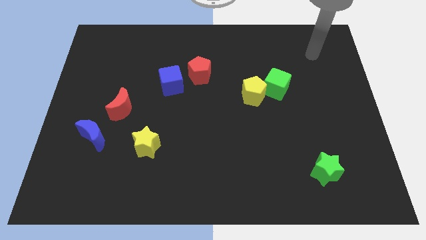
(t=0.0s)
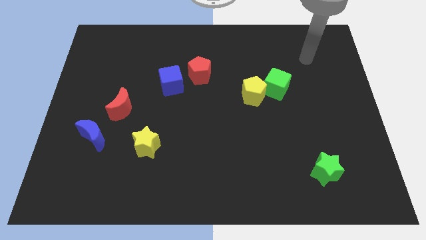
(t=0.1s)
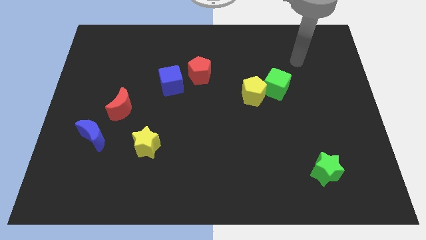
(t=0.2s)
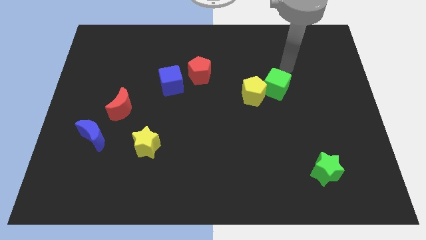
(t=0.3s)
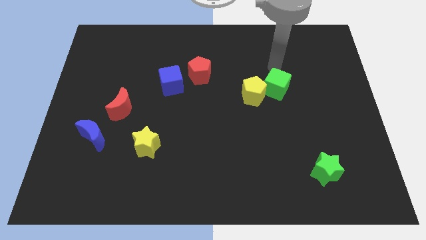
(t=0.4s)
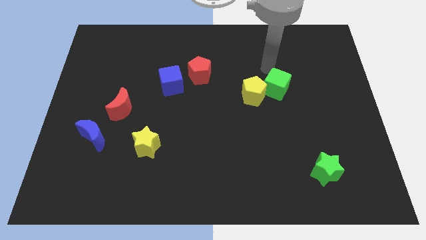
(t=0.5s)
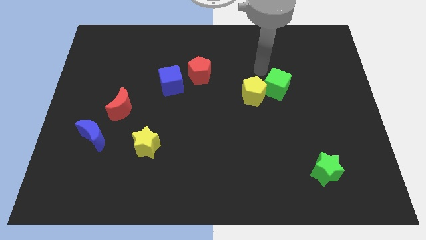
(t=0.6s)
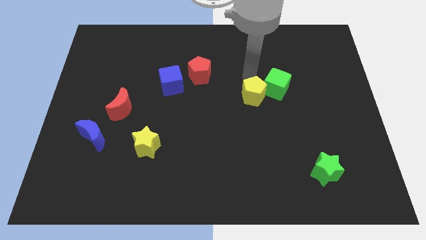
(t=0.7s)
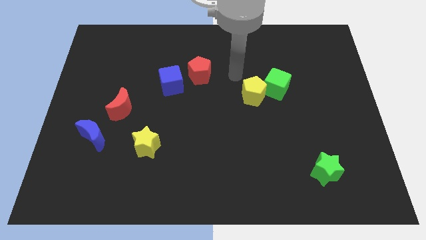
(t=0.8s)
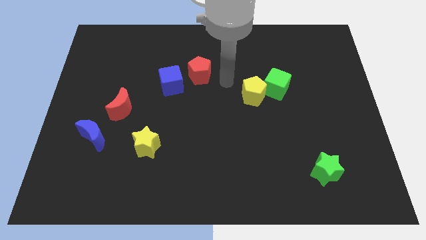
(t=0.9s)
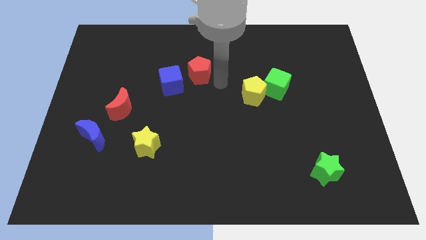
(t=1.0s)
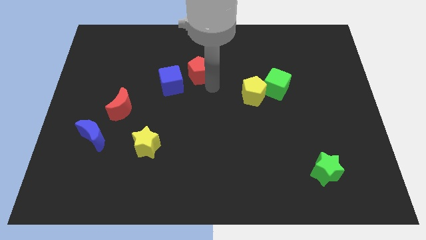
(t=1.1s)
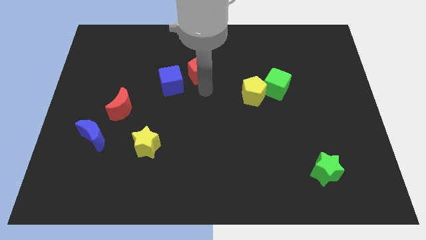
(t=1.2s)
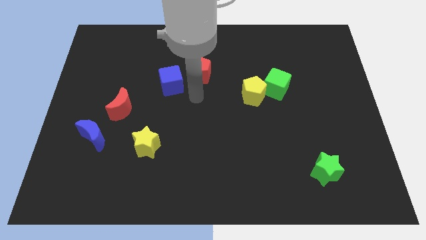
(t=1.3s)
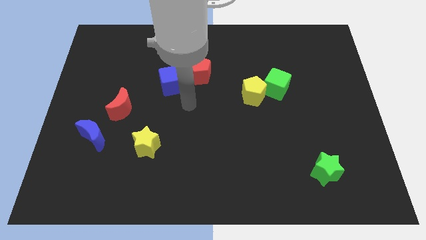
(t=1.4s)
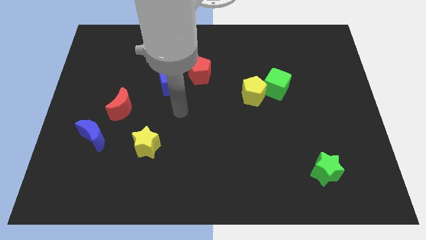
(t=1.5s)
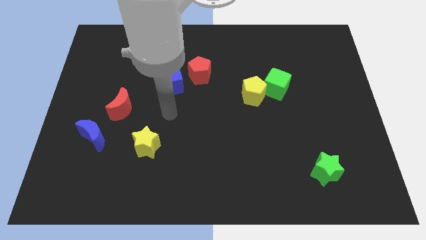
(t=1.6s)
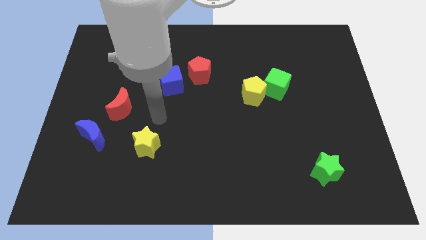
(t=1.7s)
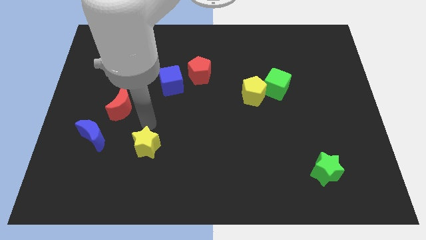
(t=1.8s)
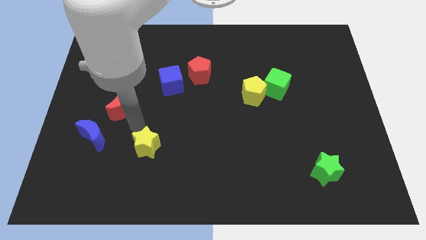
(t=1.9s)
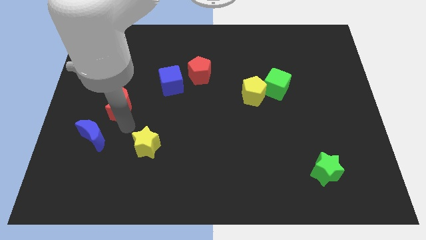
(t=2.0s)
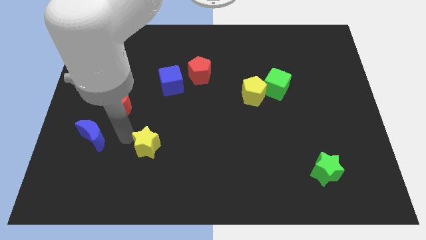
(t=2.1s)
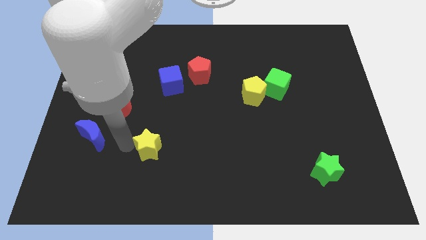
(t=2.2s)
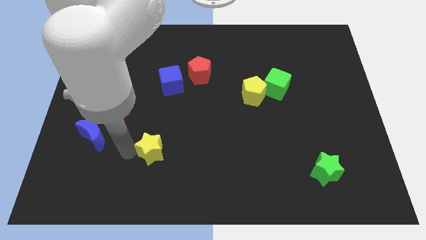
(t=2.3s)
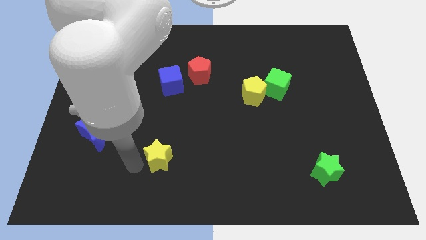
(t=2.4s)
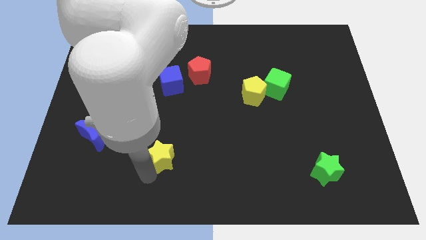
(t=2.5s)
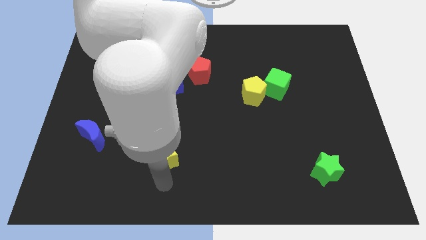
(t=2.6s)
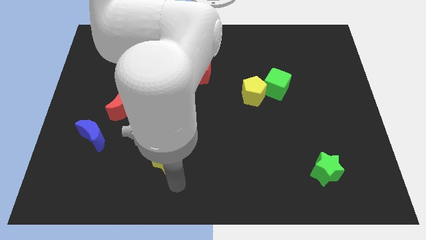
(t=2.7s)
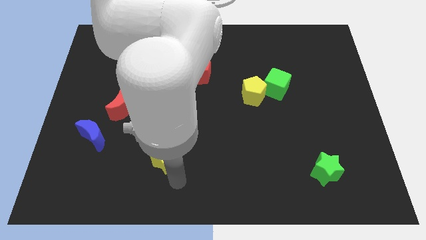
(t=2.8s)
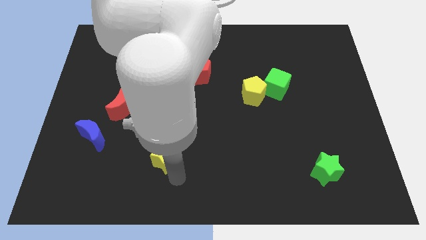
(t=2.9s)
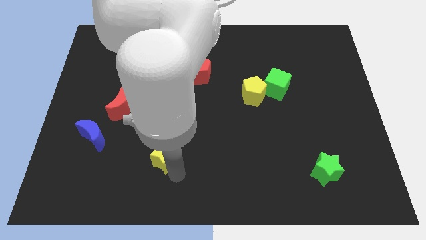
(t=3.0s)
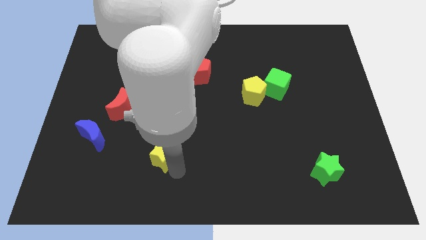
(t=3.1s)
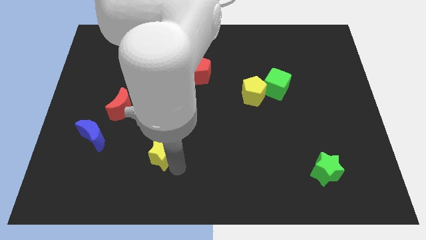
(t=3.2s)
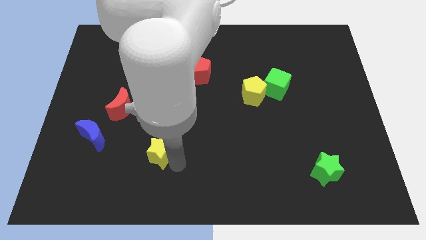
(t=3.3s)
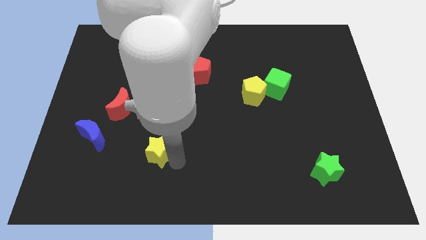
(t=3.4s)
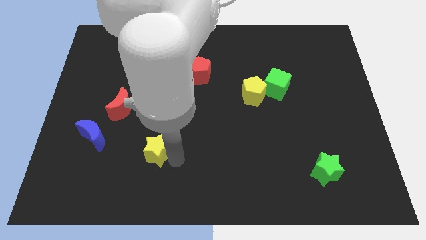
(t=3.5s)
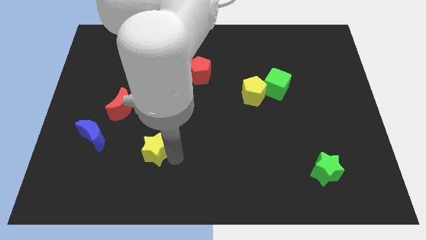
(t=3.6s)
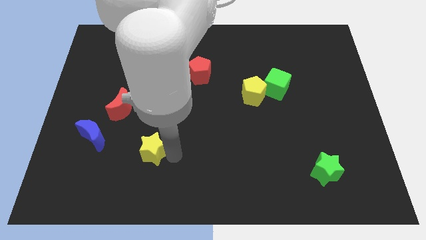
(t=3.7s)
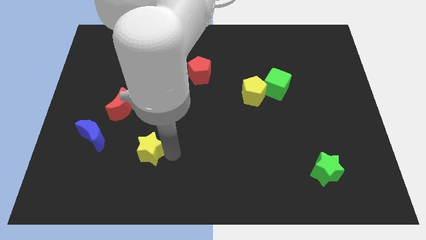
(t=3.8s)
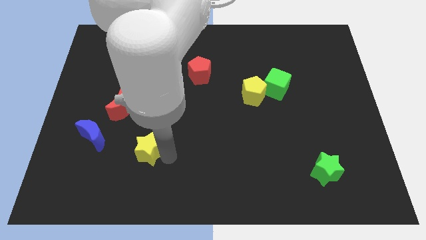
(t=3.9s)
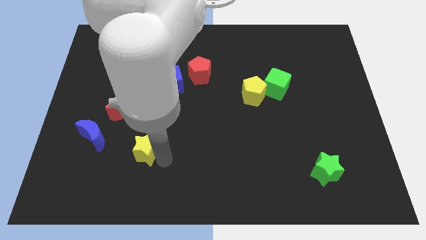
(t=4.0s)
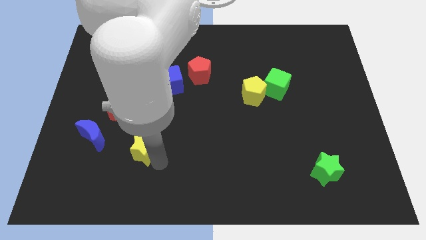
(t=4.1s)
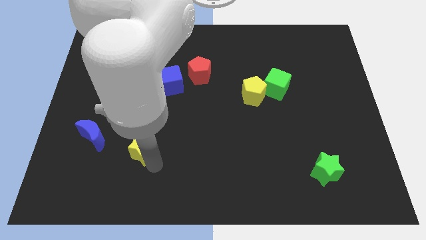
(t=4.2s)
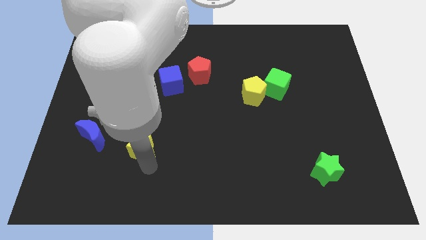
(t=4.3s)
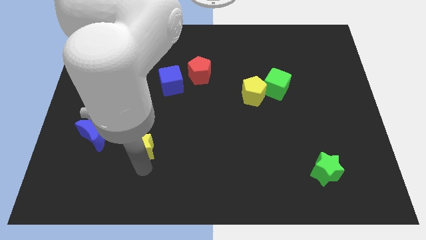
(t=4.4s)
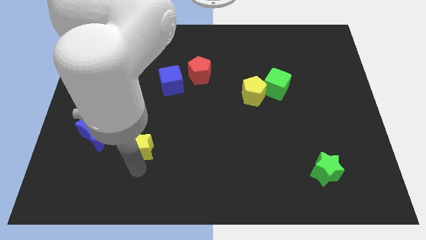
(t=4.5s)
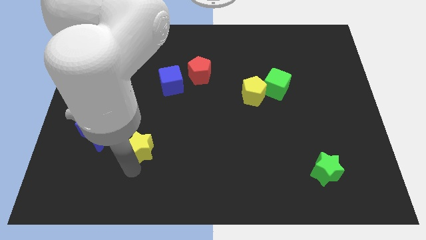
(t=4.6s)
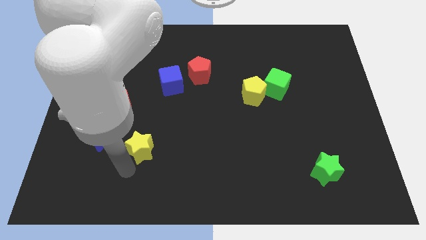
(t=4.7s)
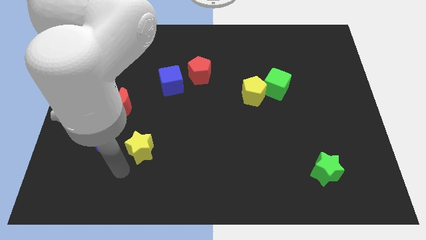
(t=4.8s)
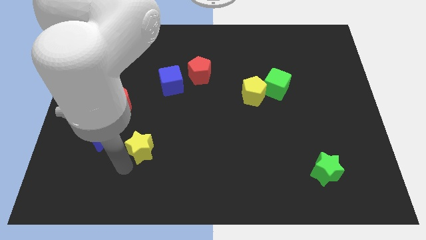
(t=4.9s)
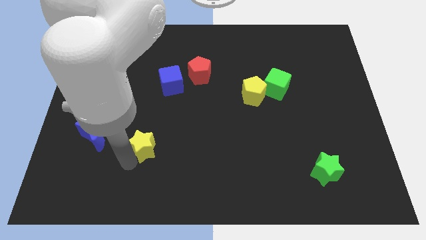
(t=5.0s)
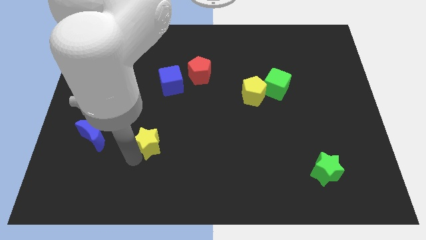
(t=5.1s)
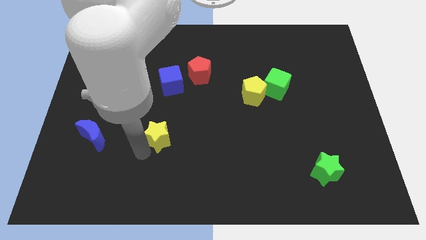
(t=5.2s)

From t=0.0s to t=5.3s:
put the yellow star to the bottom of the blue cube

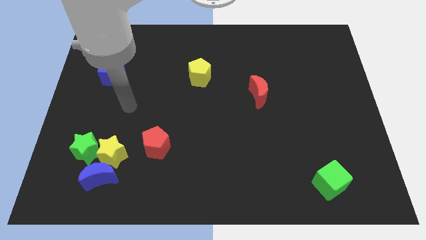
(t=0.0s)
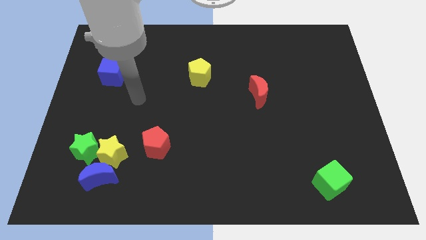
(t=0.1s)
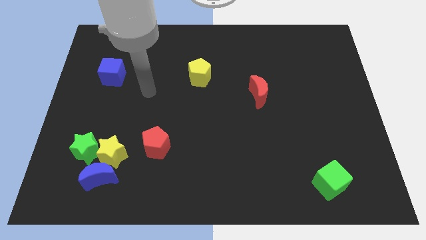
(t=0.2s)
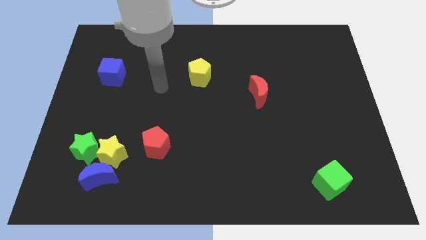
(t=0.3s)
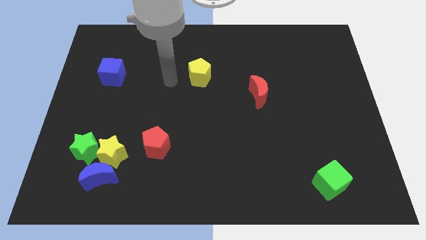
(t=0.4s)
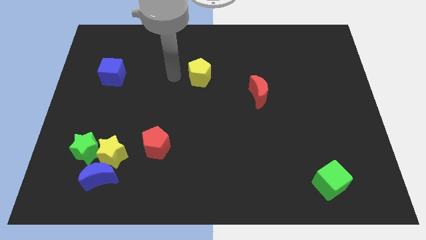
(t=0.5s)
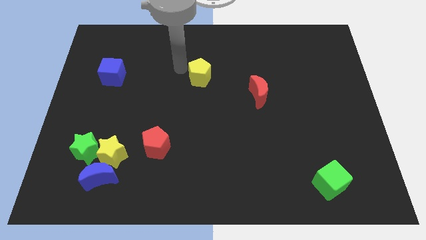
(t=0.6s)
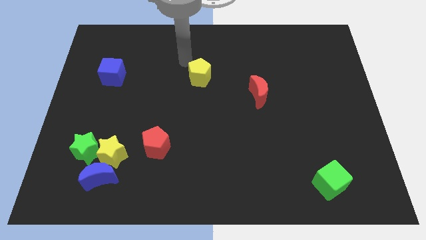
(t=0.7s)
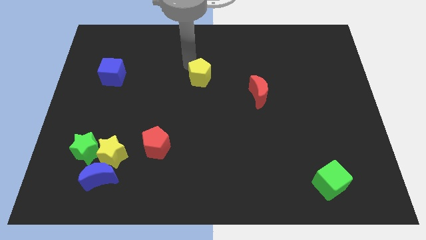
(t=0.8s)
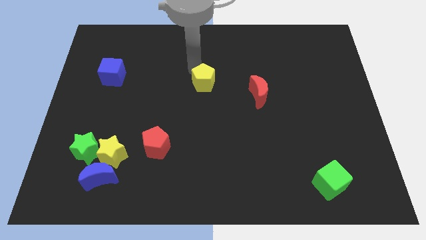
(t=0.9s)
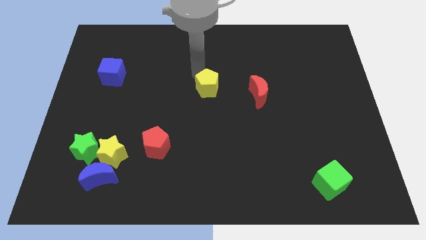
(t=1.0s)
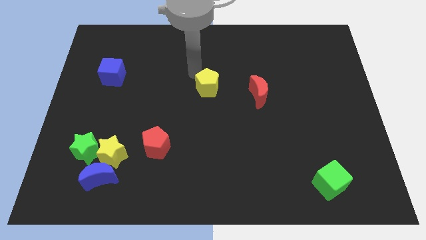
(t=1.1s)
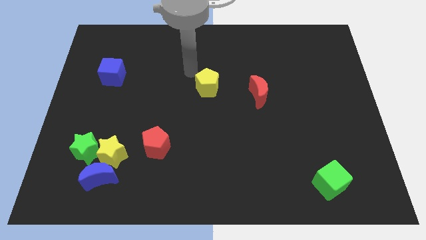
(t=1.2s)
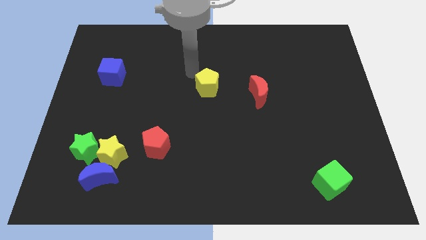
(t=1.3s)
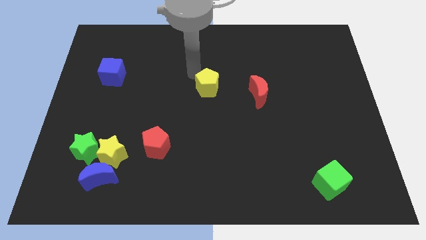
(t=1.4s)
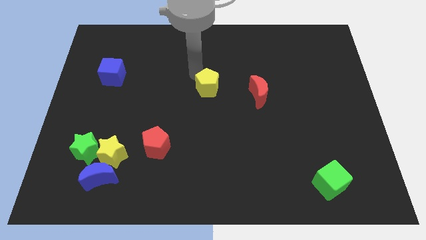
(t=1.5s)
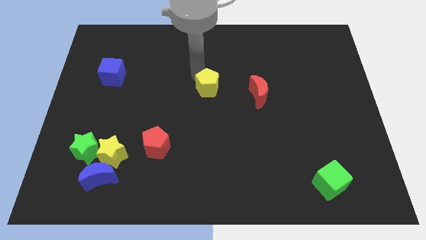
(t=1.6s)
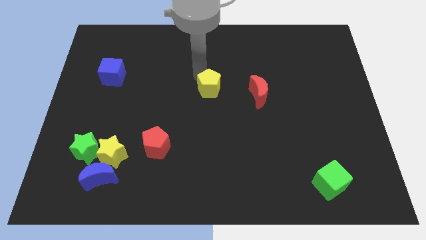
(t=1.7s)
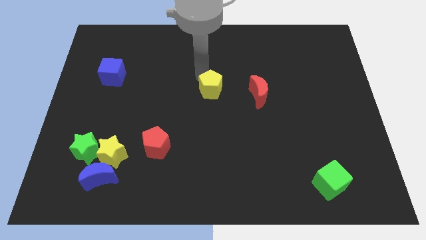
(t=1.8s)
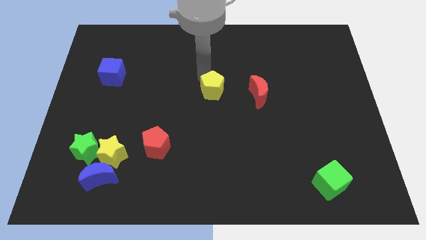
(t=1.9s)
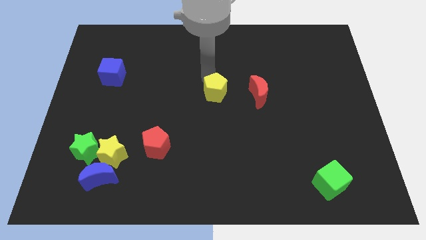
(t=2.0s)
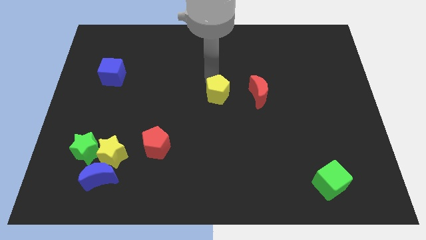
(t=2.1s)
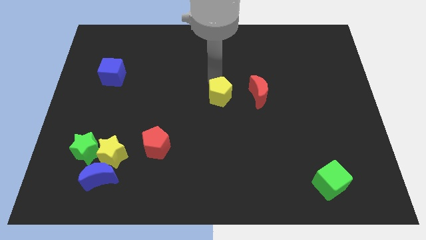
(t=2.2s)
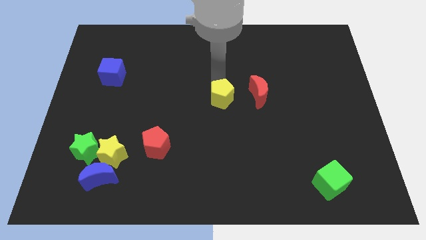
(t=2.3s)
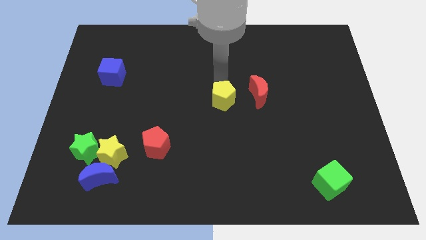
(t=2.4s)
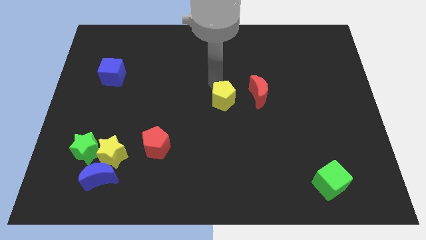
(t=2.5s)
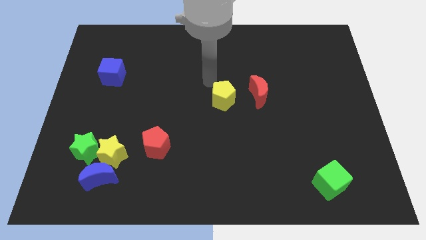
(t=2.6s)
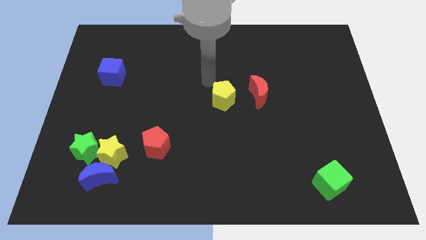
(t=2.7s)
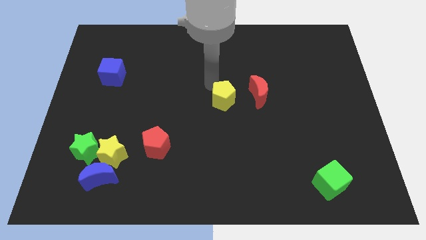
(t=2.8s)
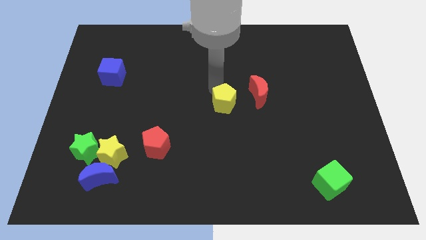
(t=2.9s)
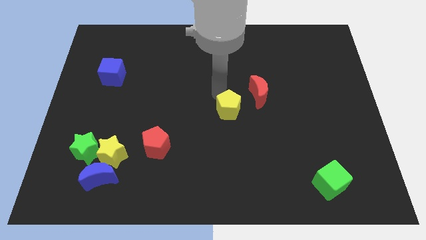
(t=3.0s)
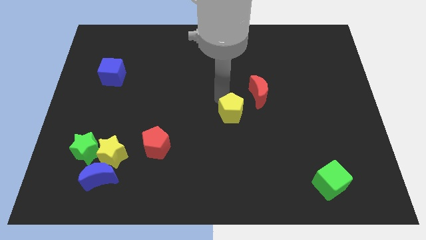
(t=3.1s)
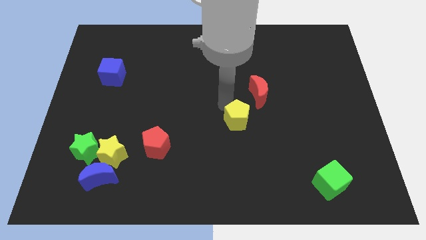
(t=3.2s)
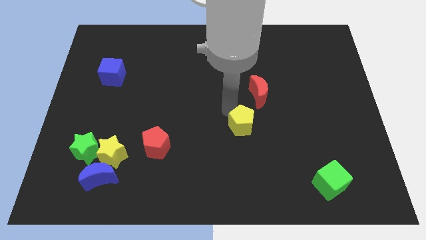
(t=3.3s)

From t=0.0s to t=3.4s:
put the yellow pentagon below the red moon
